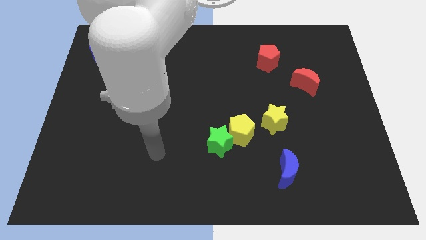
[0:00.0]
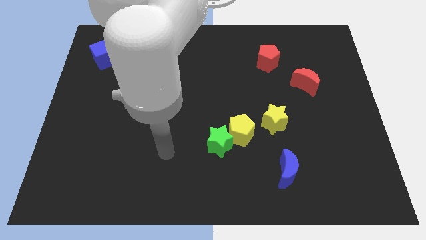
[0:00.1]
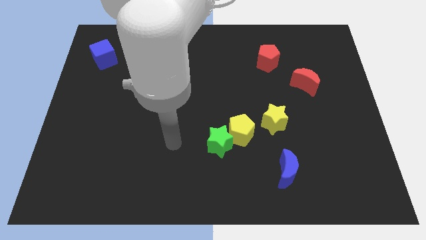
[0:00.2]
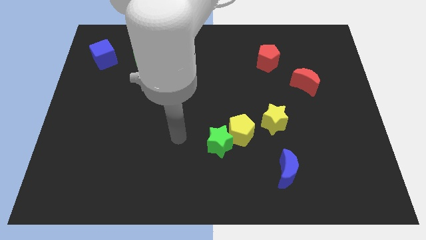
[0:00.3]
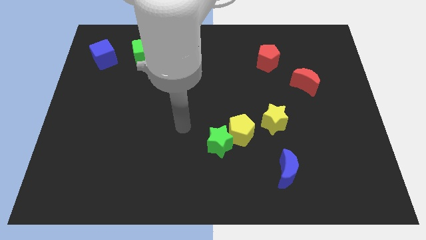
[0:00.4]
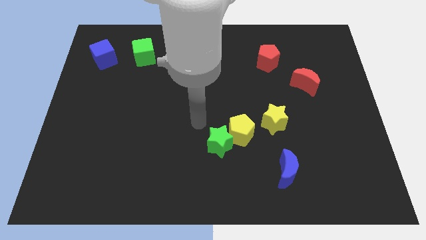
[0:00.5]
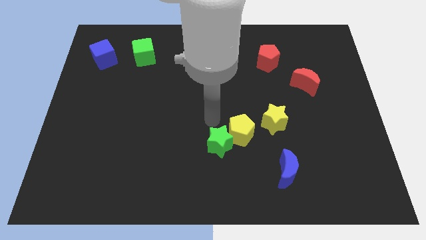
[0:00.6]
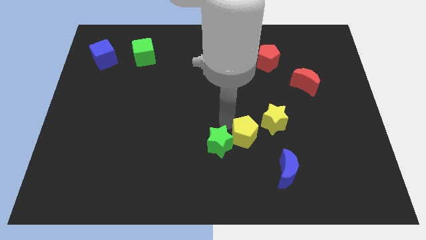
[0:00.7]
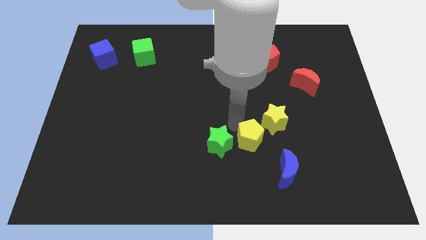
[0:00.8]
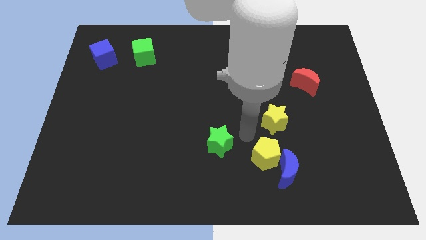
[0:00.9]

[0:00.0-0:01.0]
move the green star away from the yellow pentagon

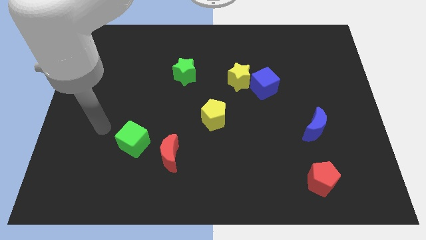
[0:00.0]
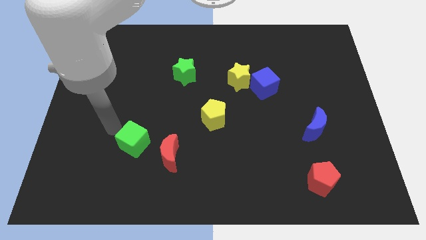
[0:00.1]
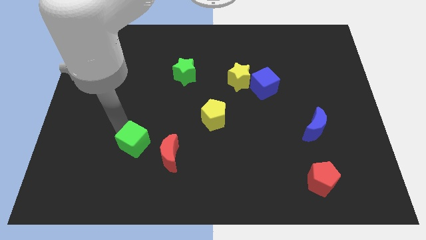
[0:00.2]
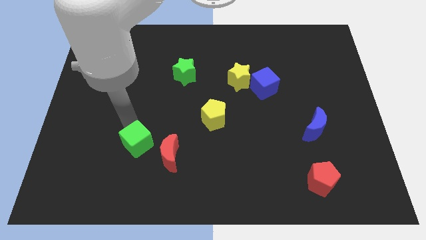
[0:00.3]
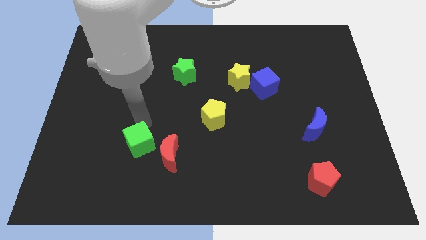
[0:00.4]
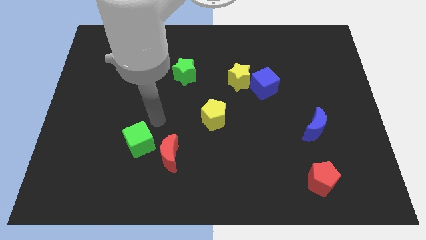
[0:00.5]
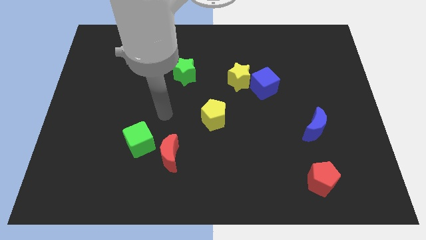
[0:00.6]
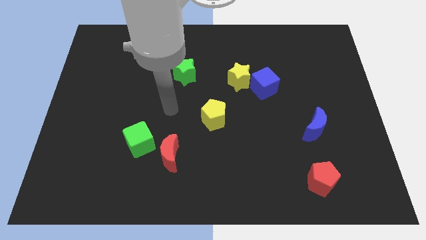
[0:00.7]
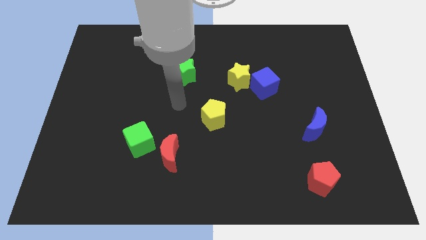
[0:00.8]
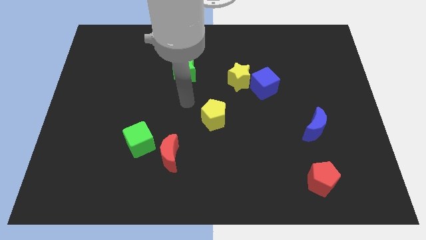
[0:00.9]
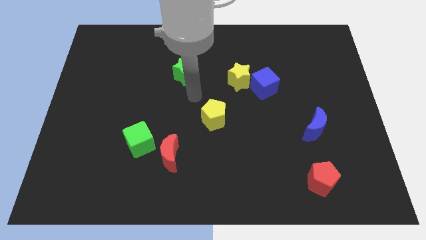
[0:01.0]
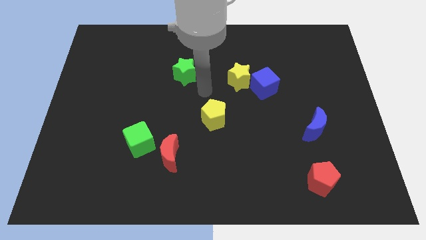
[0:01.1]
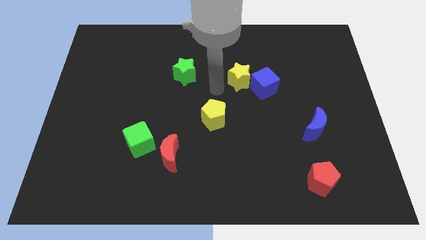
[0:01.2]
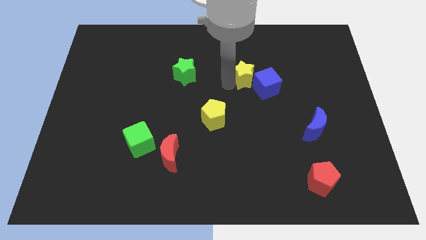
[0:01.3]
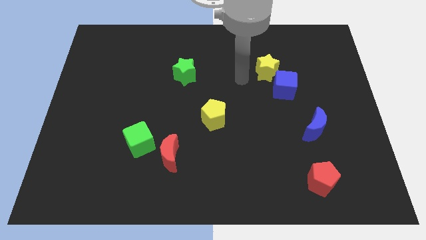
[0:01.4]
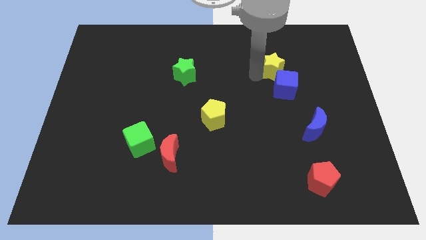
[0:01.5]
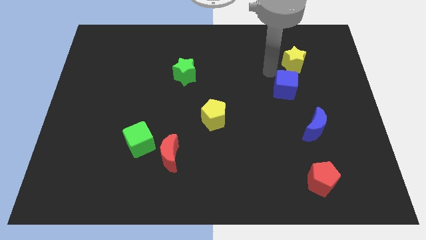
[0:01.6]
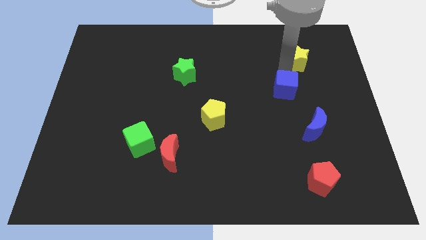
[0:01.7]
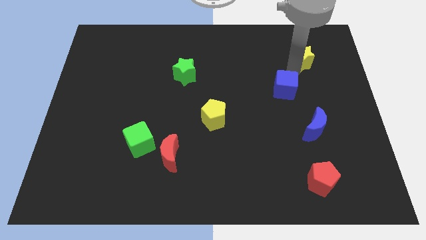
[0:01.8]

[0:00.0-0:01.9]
move the blue cube away from the yellow star

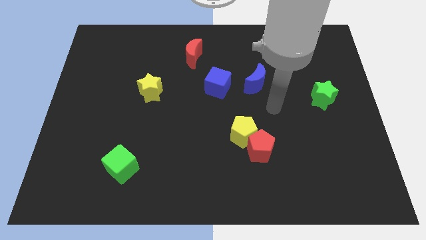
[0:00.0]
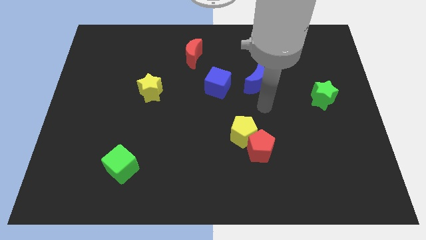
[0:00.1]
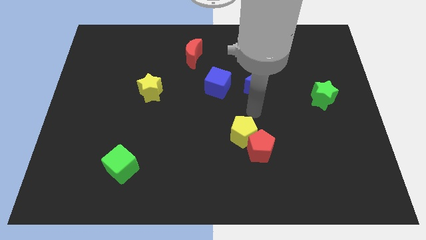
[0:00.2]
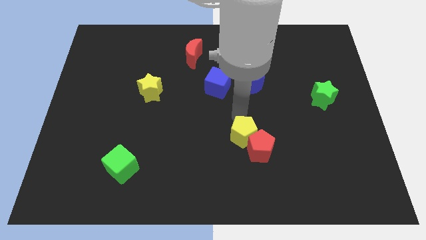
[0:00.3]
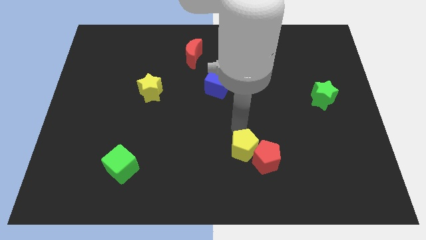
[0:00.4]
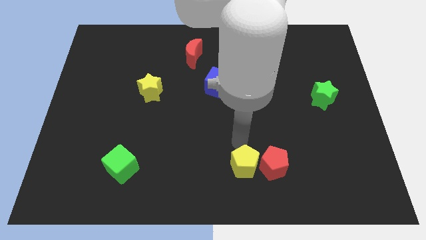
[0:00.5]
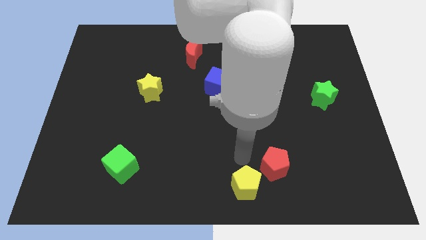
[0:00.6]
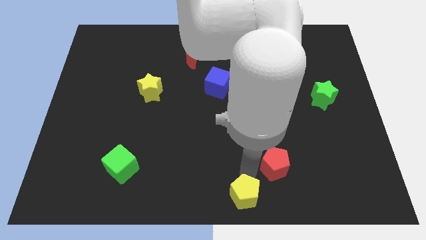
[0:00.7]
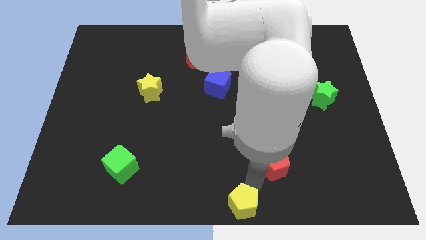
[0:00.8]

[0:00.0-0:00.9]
pull the red pentagon apart from the yellow pentagon

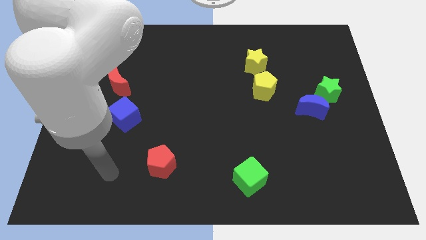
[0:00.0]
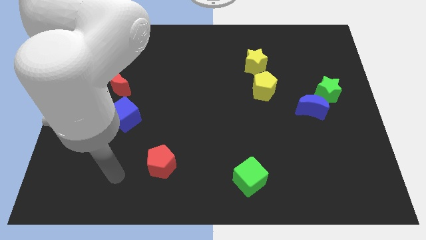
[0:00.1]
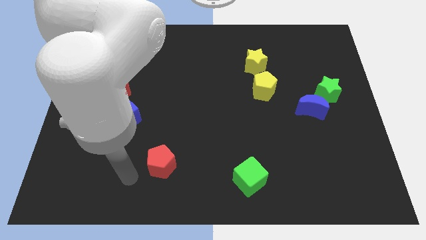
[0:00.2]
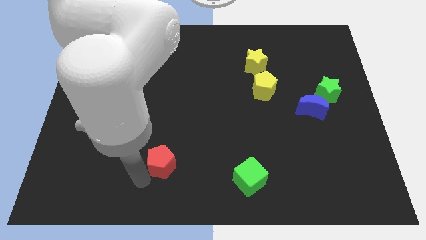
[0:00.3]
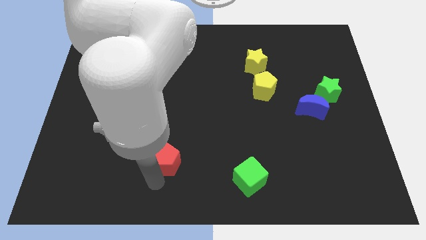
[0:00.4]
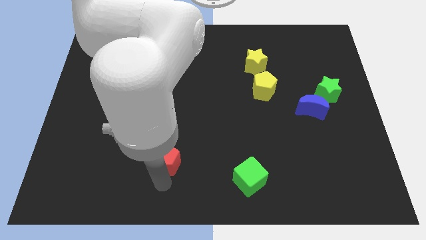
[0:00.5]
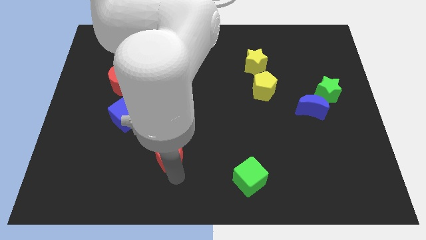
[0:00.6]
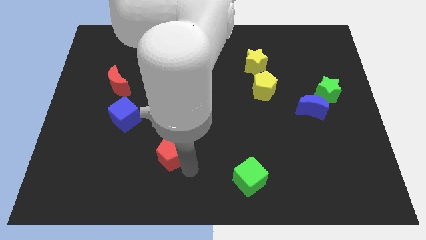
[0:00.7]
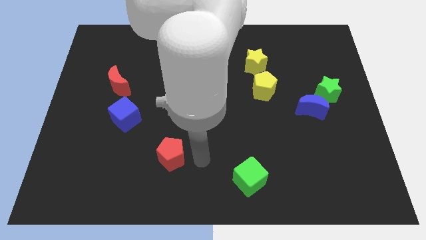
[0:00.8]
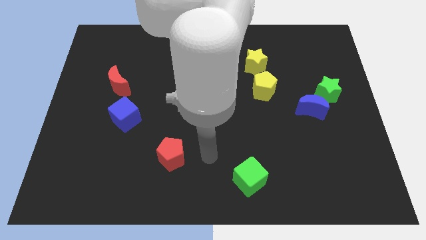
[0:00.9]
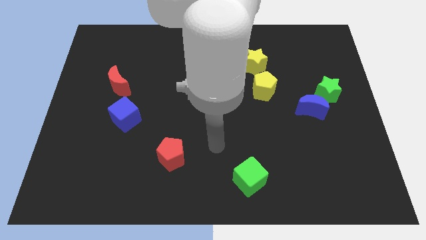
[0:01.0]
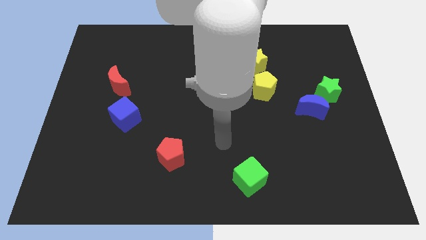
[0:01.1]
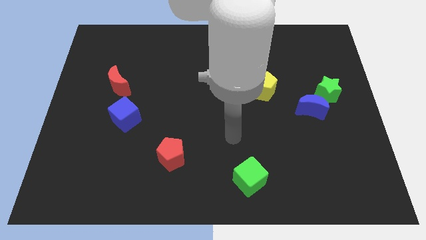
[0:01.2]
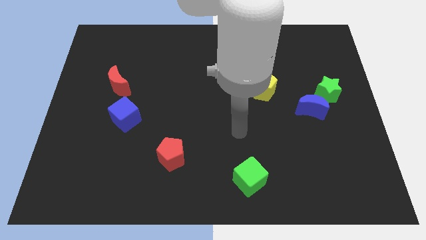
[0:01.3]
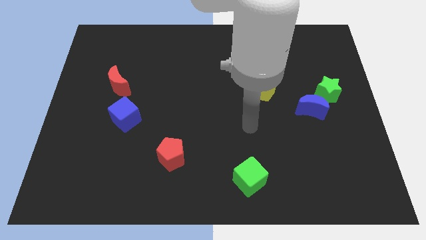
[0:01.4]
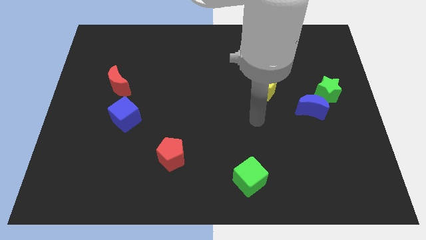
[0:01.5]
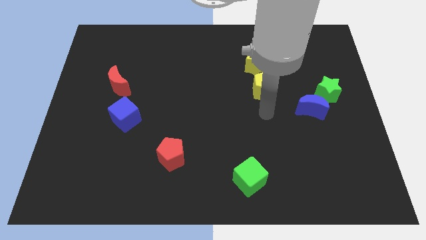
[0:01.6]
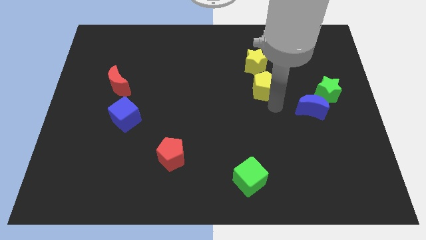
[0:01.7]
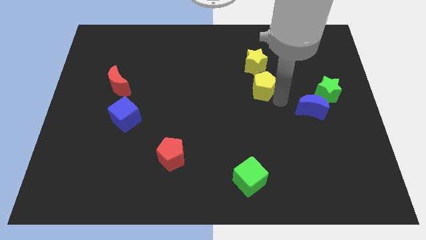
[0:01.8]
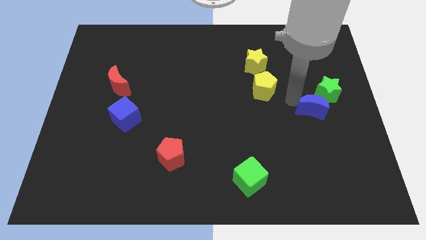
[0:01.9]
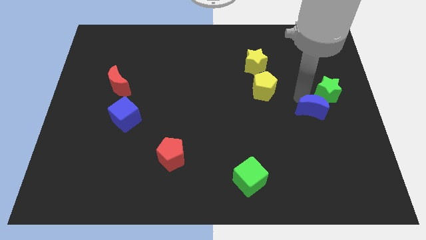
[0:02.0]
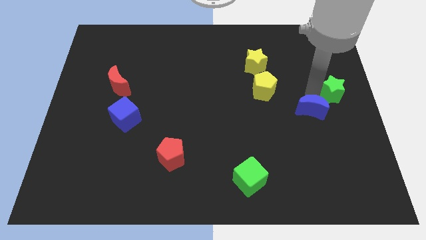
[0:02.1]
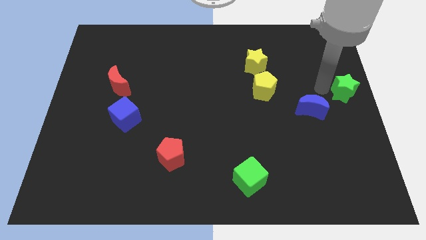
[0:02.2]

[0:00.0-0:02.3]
move the blue moon away from the green star

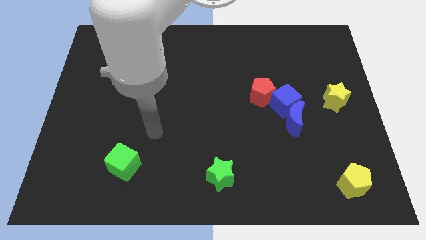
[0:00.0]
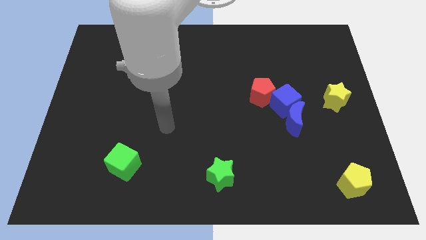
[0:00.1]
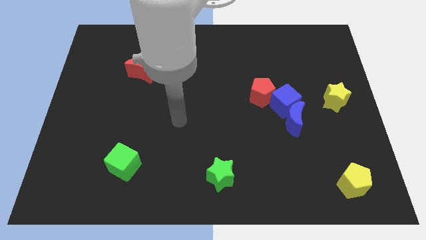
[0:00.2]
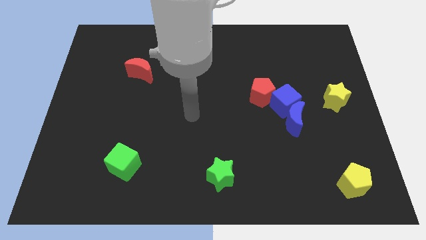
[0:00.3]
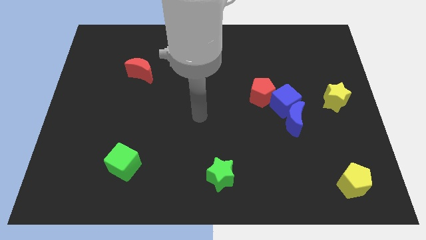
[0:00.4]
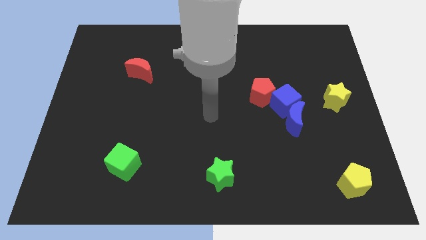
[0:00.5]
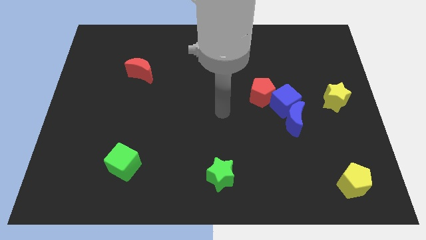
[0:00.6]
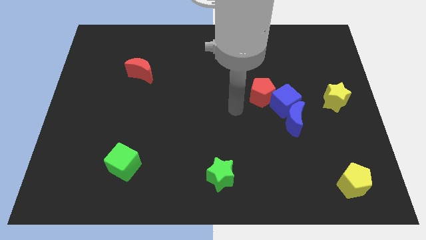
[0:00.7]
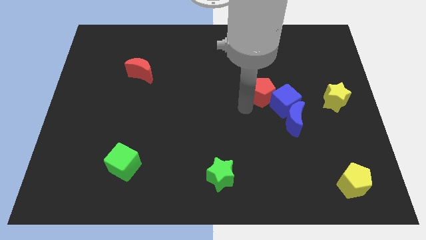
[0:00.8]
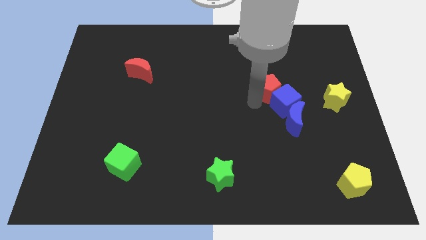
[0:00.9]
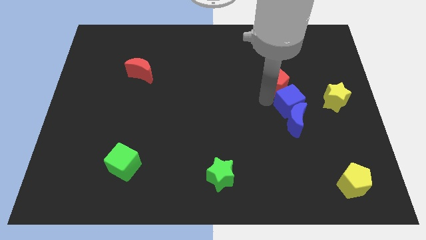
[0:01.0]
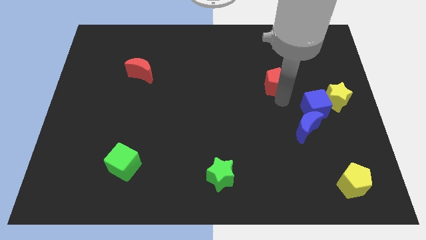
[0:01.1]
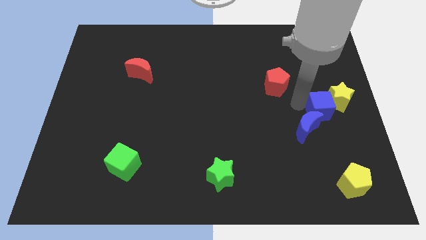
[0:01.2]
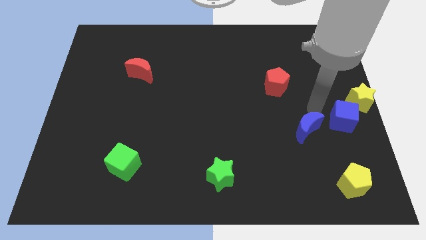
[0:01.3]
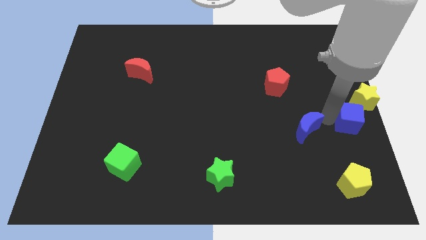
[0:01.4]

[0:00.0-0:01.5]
pull the blue moon apart from the blue cube

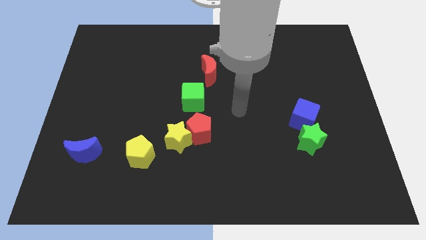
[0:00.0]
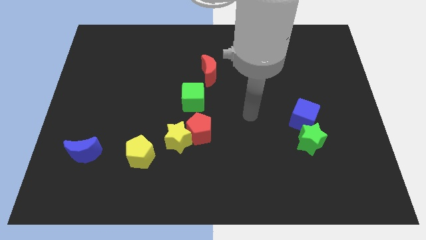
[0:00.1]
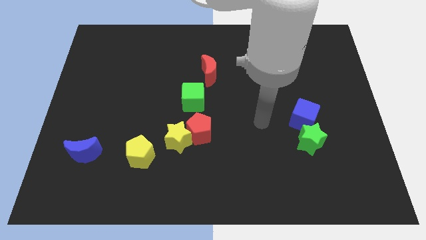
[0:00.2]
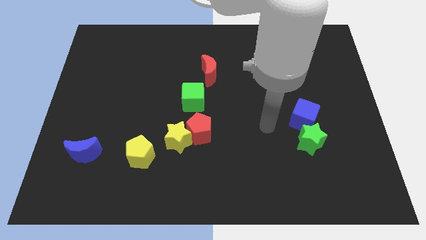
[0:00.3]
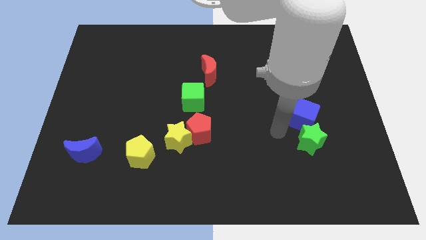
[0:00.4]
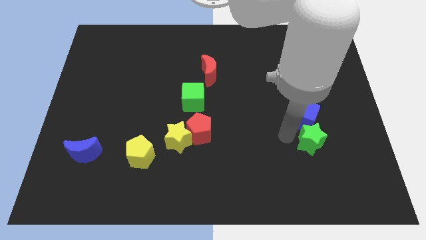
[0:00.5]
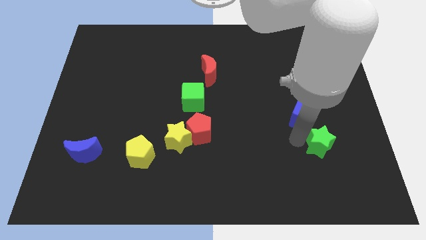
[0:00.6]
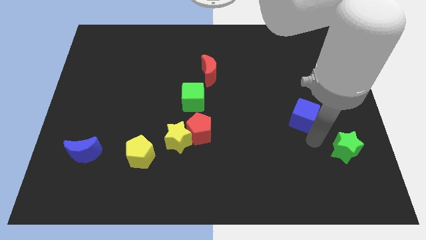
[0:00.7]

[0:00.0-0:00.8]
separate the blue cube from the green star

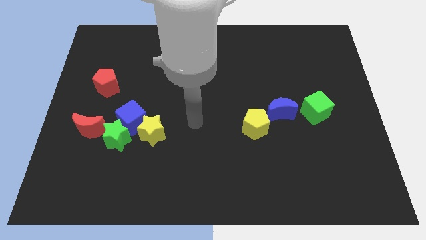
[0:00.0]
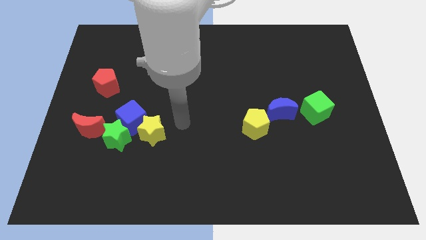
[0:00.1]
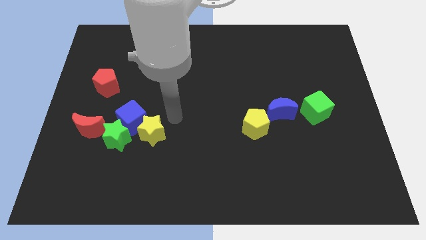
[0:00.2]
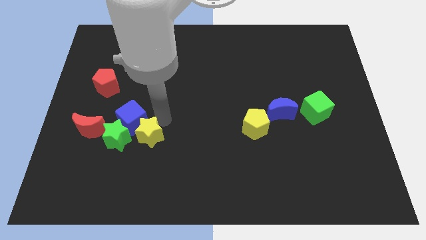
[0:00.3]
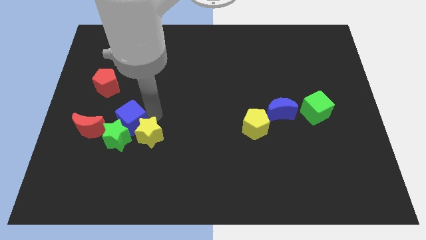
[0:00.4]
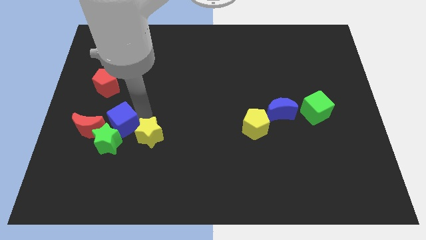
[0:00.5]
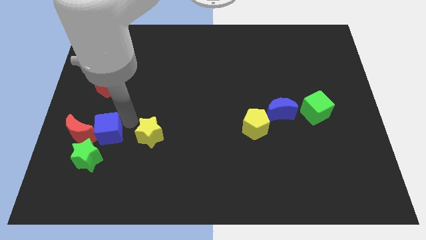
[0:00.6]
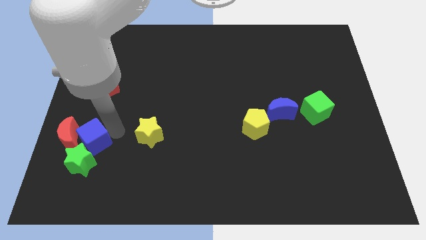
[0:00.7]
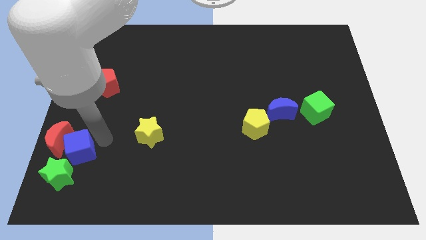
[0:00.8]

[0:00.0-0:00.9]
separate the green star from the blue cube, red moon, and yellow star
